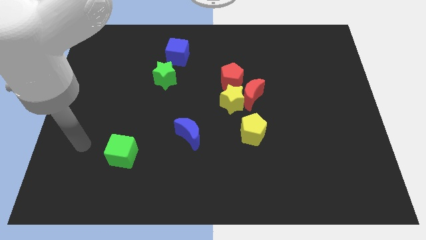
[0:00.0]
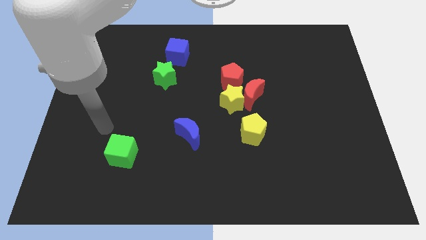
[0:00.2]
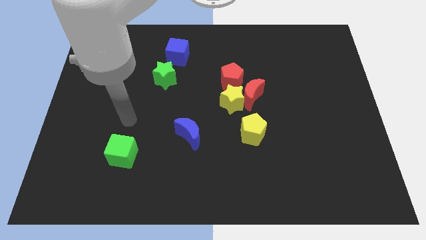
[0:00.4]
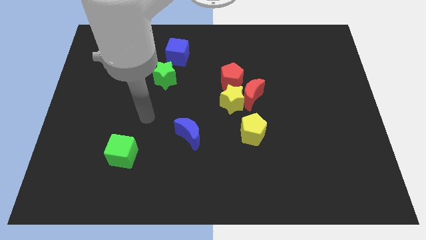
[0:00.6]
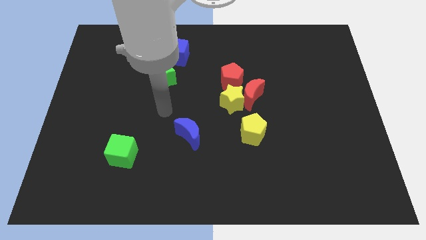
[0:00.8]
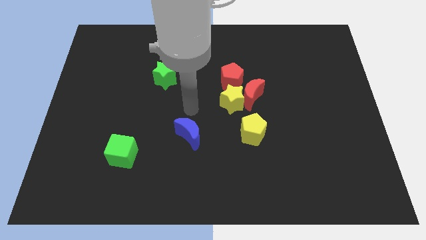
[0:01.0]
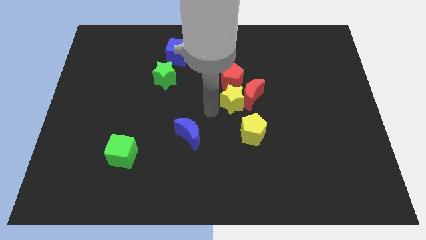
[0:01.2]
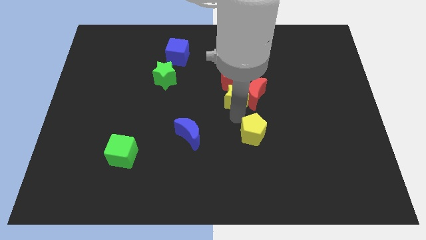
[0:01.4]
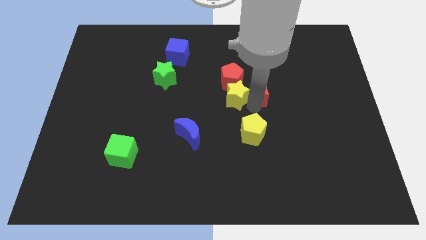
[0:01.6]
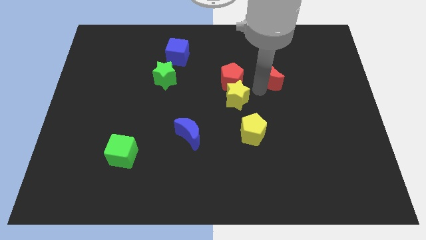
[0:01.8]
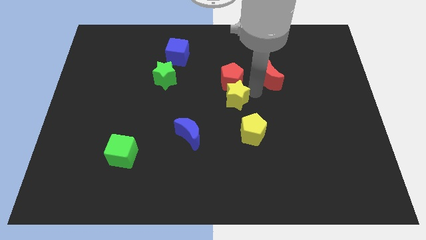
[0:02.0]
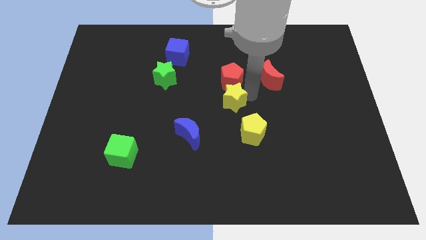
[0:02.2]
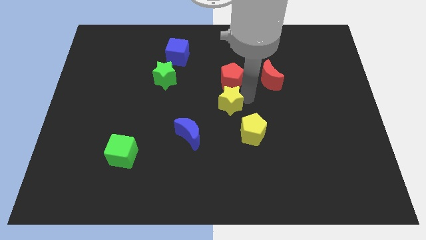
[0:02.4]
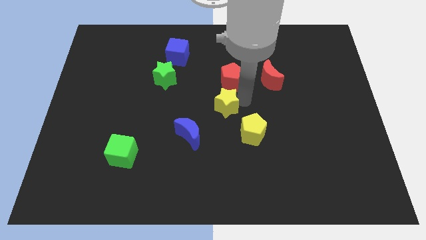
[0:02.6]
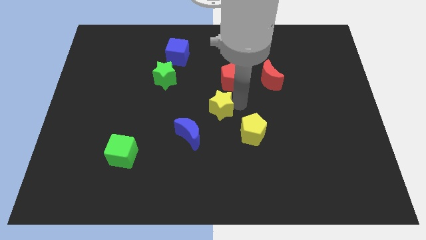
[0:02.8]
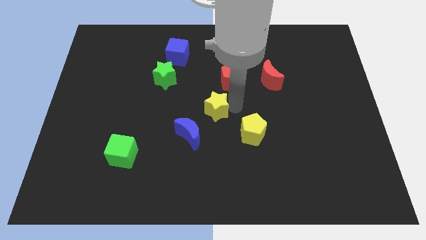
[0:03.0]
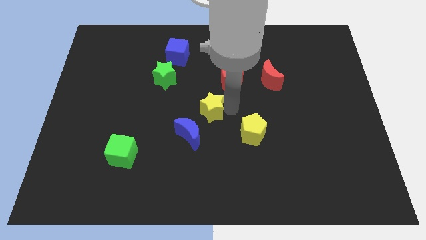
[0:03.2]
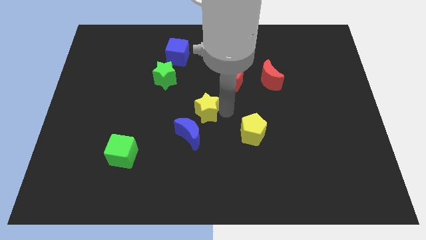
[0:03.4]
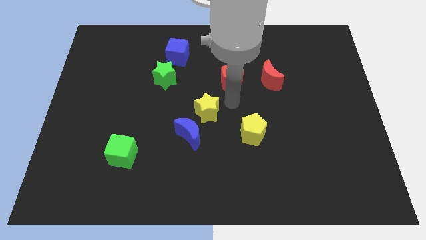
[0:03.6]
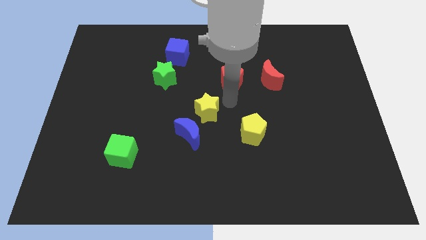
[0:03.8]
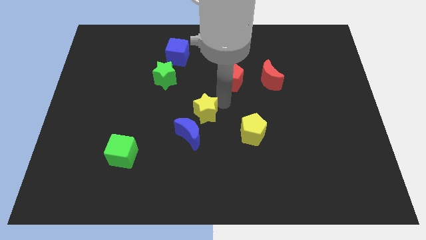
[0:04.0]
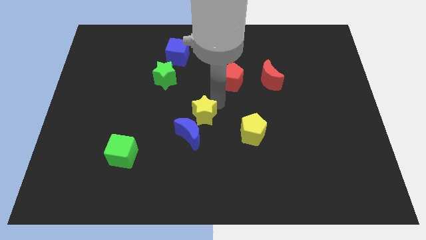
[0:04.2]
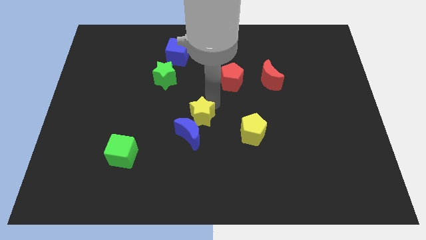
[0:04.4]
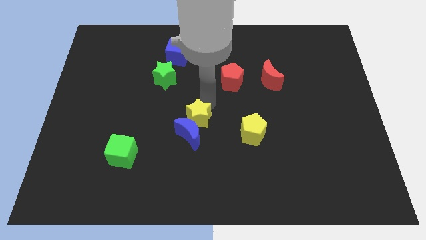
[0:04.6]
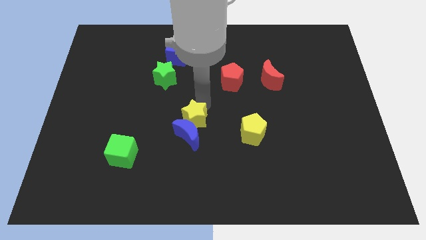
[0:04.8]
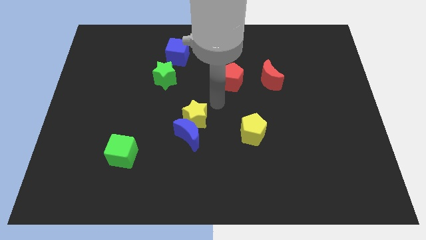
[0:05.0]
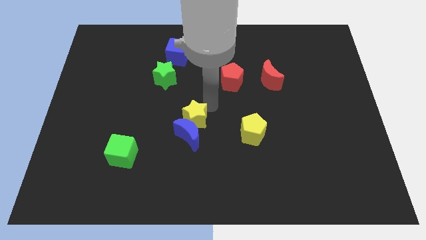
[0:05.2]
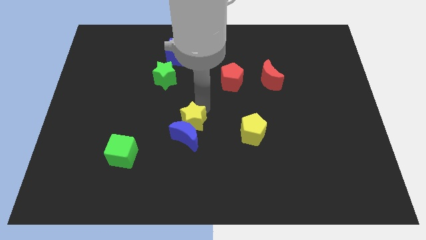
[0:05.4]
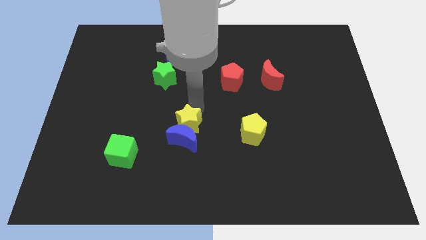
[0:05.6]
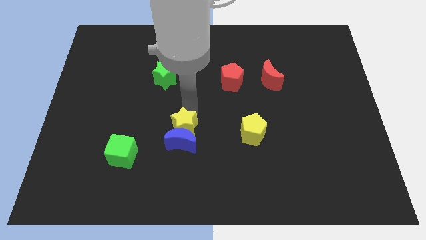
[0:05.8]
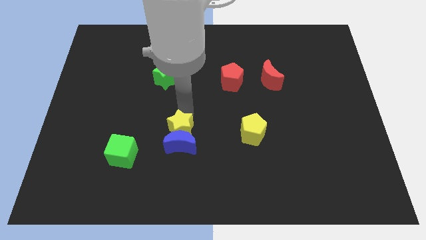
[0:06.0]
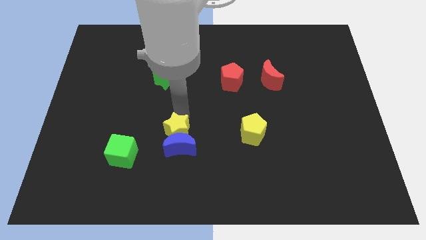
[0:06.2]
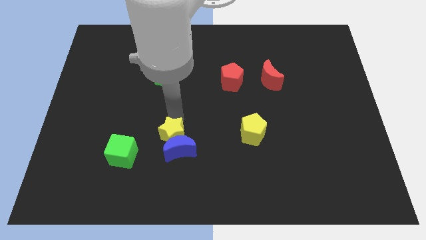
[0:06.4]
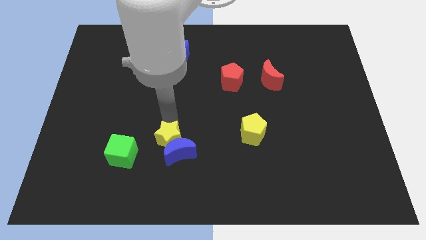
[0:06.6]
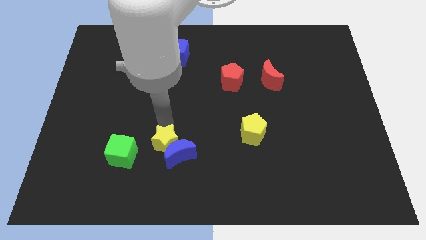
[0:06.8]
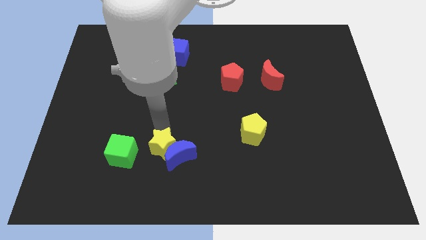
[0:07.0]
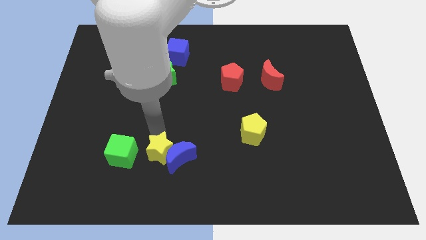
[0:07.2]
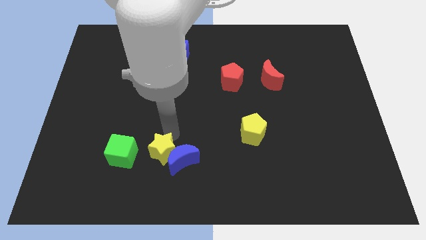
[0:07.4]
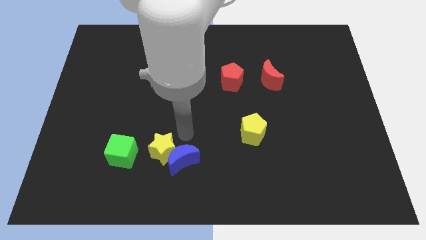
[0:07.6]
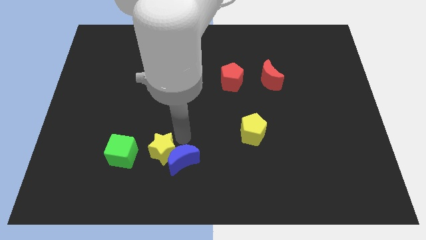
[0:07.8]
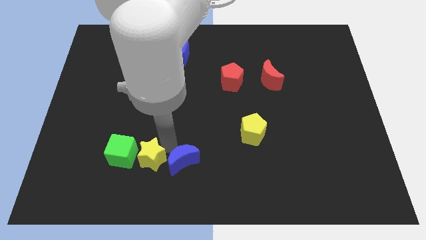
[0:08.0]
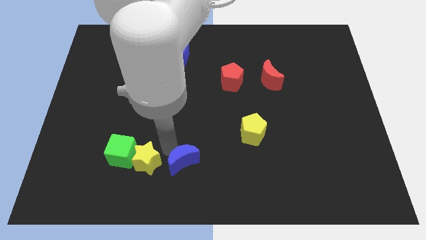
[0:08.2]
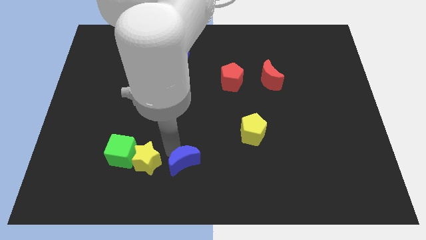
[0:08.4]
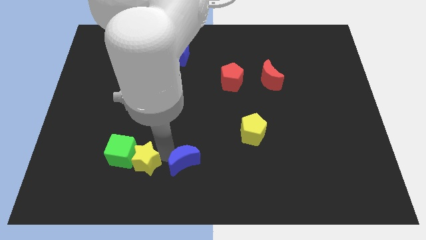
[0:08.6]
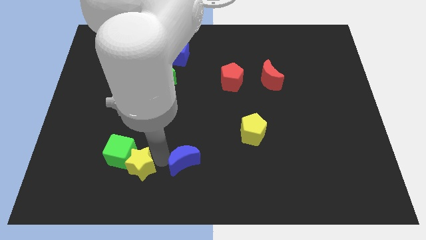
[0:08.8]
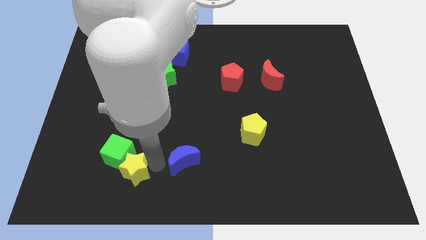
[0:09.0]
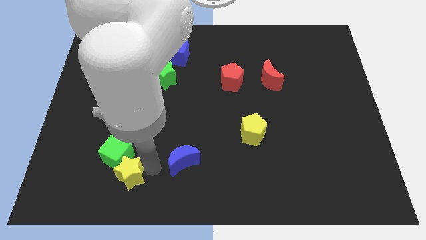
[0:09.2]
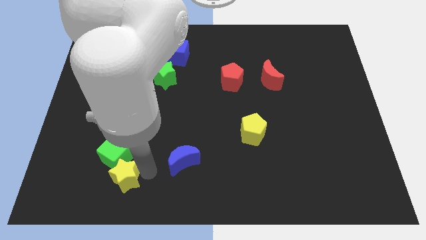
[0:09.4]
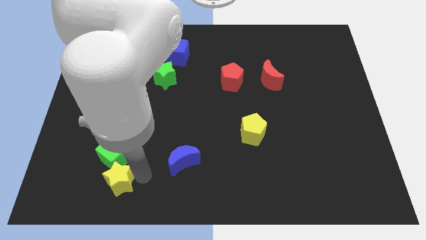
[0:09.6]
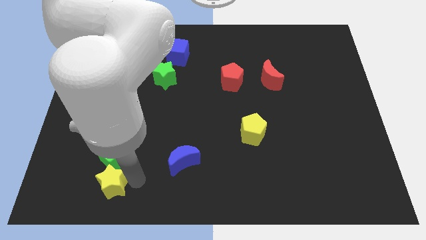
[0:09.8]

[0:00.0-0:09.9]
move the yellow star to the bottom left of the green cube
